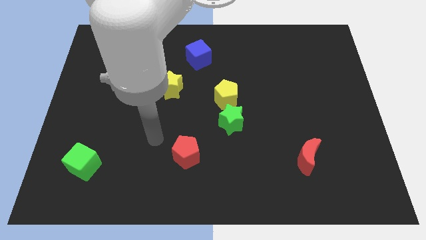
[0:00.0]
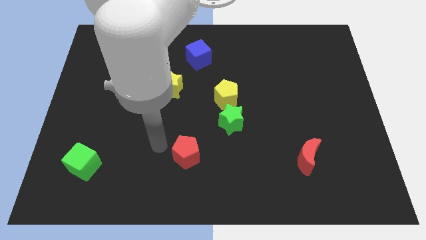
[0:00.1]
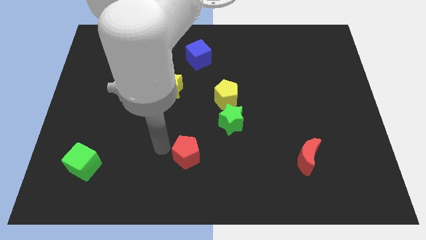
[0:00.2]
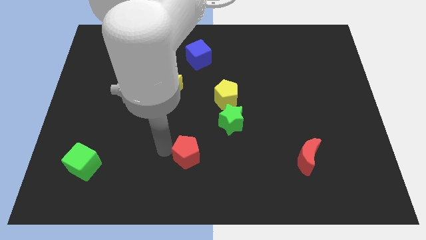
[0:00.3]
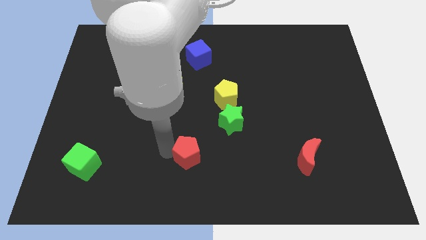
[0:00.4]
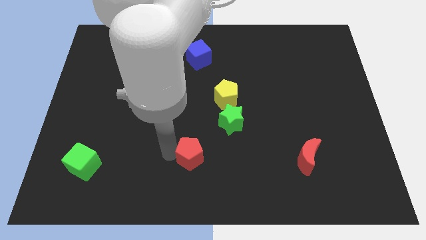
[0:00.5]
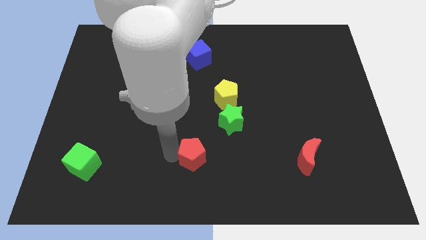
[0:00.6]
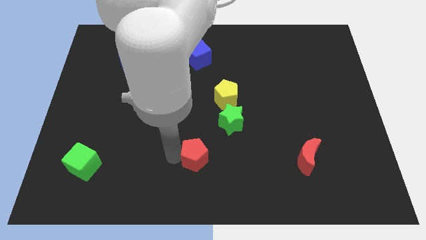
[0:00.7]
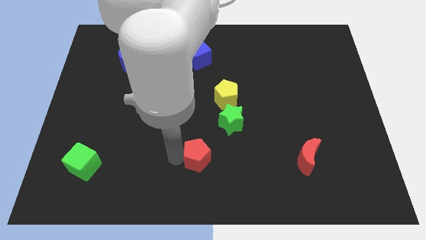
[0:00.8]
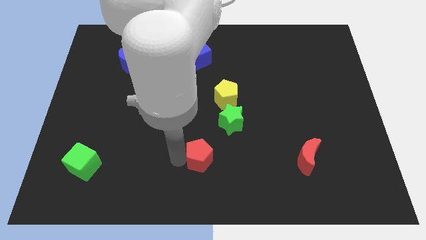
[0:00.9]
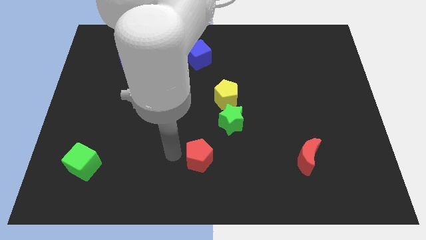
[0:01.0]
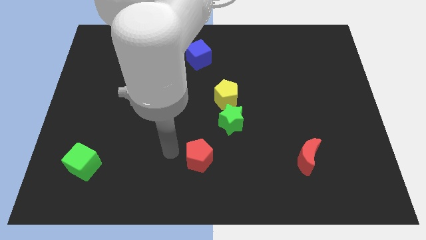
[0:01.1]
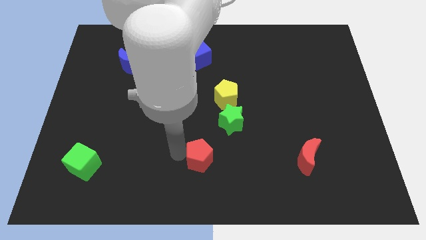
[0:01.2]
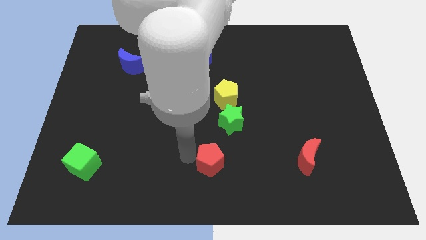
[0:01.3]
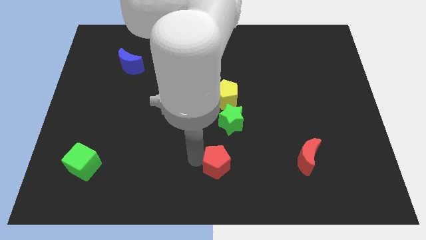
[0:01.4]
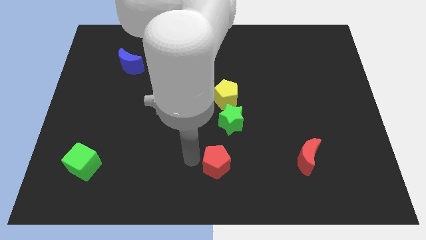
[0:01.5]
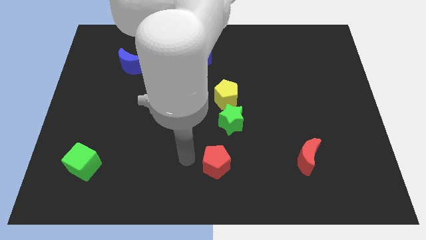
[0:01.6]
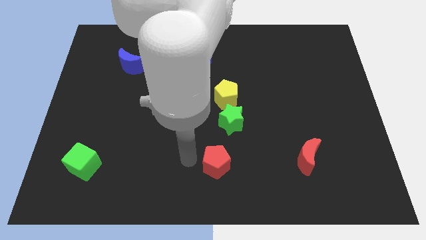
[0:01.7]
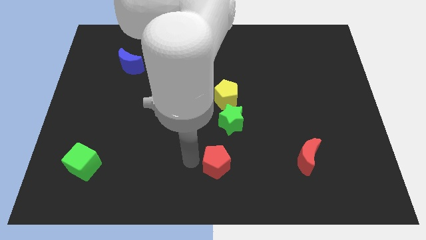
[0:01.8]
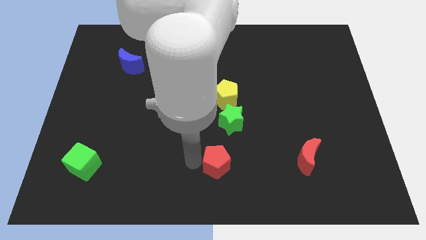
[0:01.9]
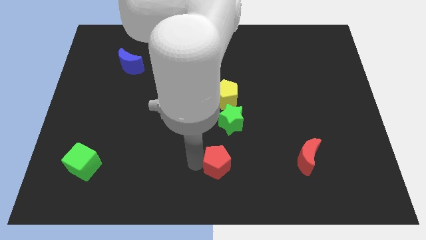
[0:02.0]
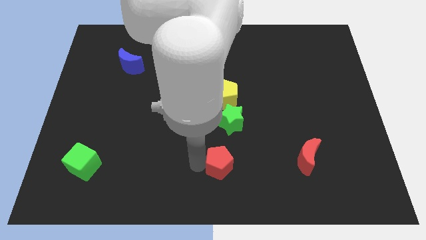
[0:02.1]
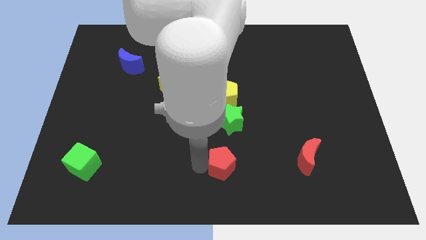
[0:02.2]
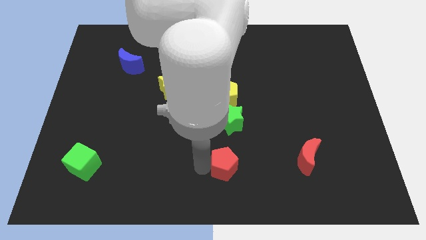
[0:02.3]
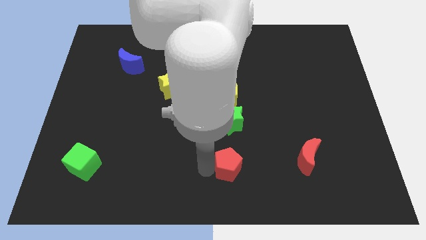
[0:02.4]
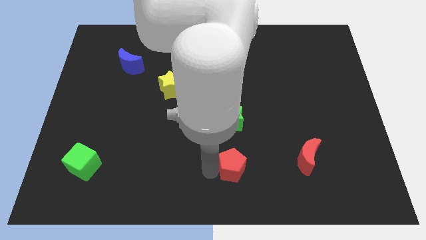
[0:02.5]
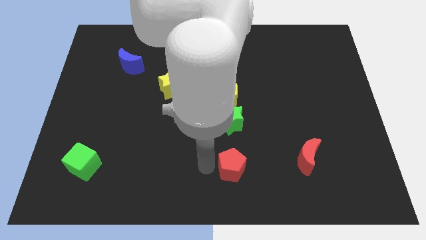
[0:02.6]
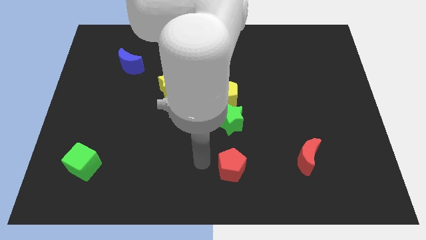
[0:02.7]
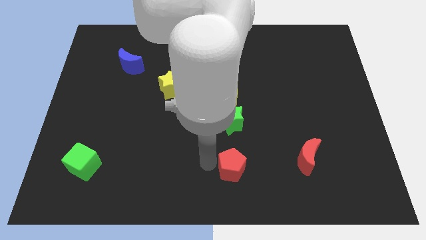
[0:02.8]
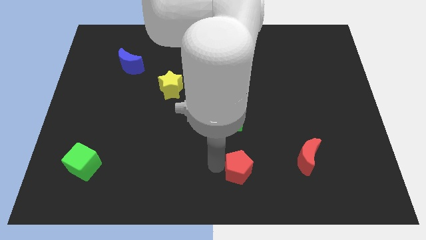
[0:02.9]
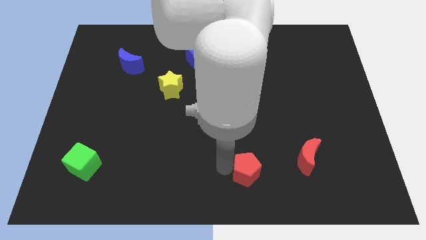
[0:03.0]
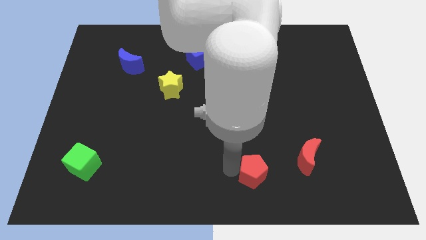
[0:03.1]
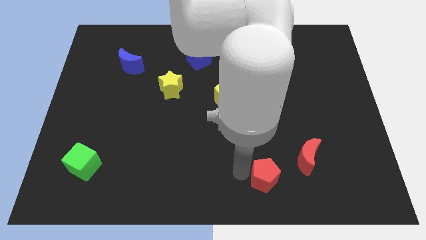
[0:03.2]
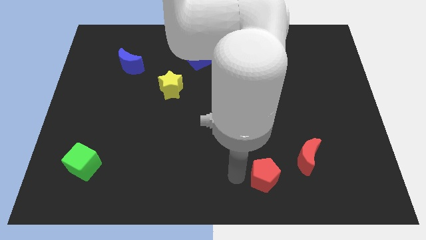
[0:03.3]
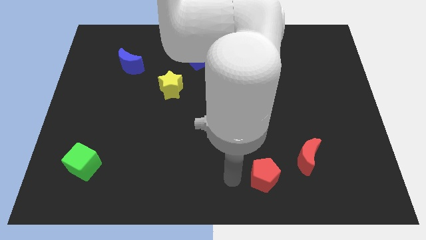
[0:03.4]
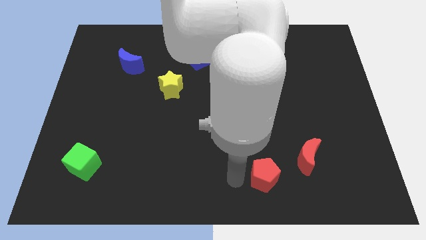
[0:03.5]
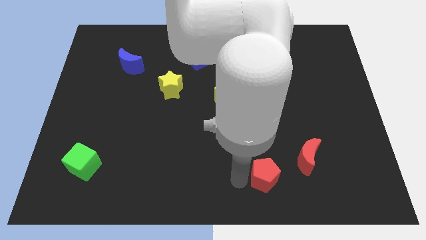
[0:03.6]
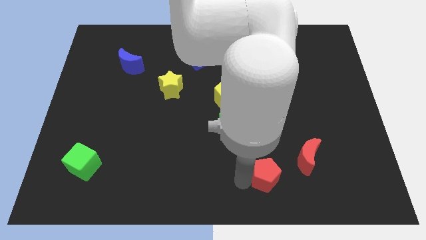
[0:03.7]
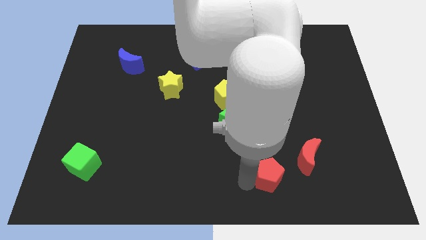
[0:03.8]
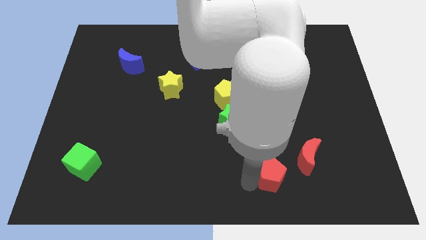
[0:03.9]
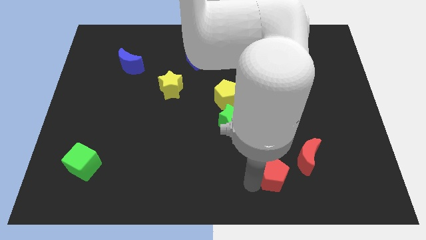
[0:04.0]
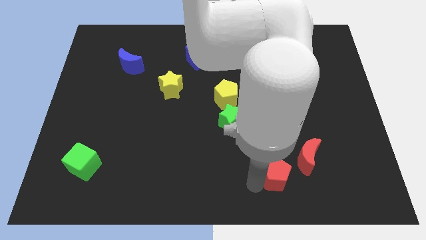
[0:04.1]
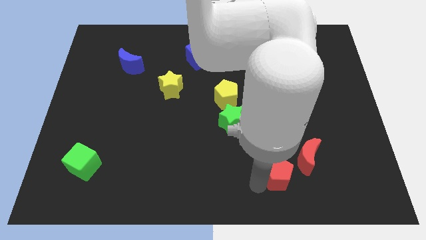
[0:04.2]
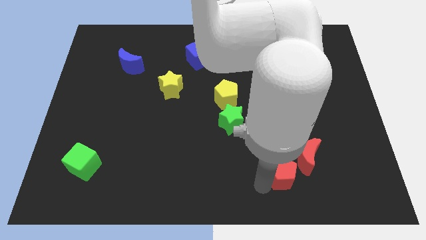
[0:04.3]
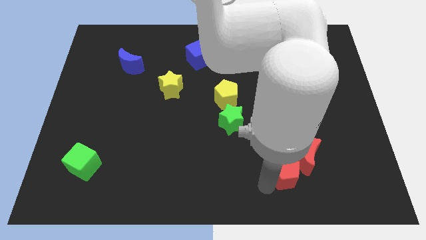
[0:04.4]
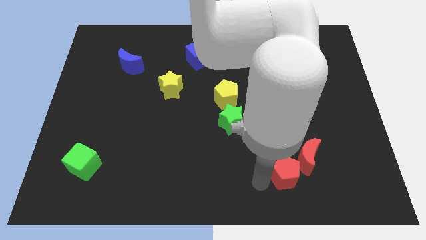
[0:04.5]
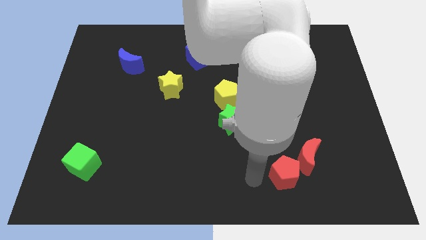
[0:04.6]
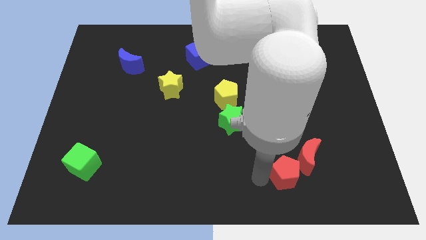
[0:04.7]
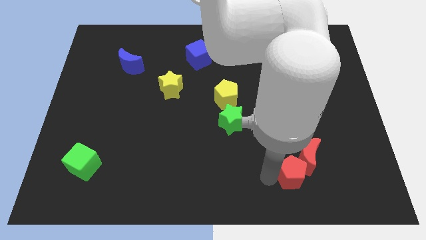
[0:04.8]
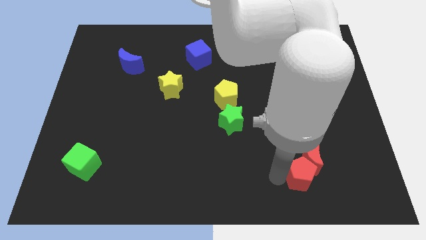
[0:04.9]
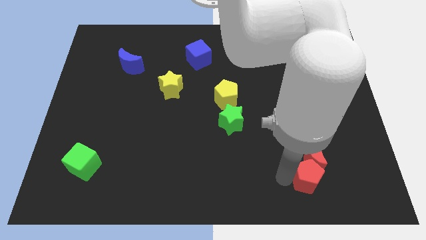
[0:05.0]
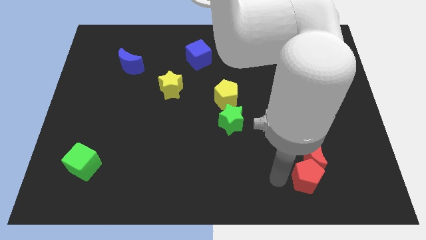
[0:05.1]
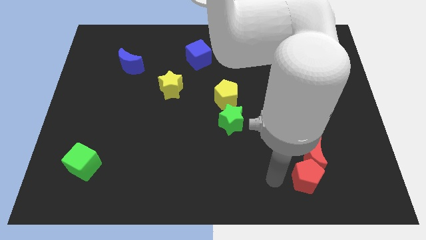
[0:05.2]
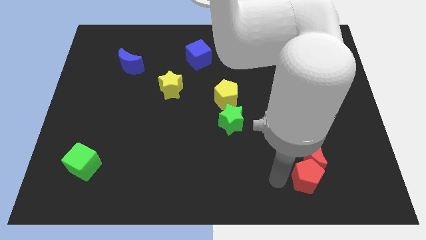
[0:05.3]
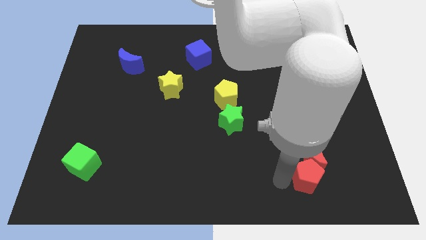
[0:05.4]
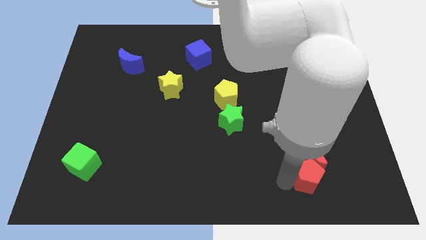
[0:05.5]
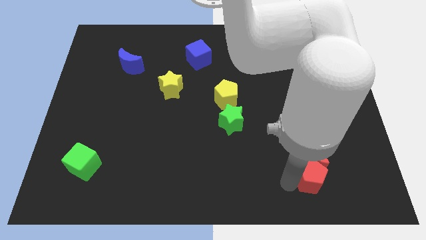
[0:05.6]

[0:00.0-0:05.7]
slide the red pentagon diagonally down and to the right of the red moon

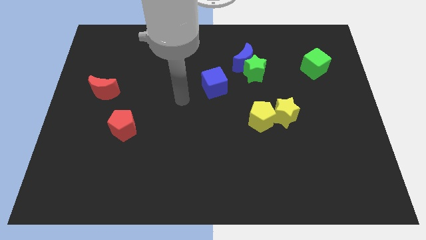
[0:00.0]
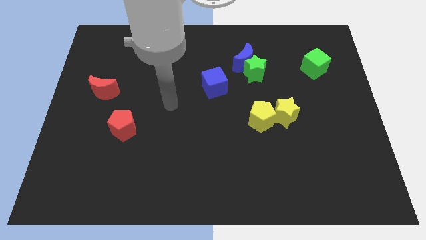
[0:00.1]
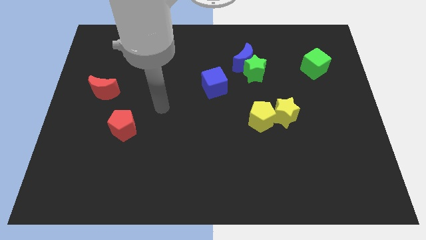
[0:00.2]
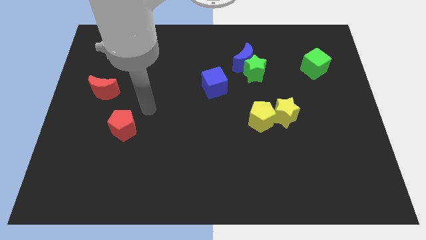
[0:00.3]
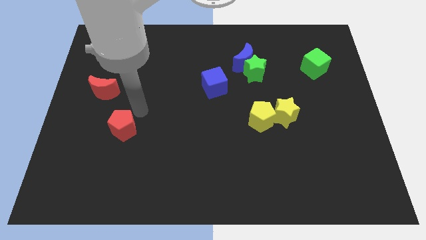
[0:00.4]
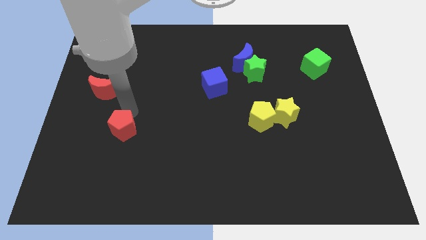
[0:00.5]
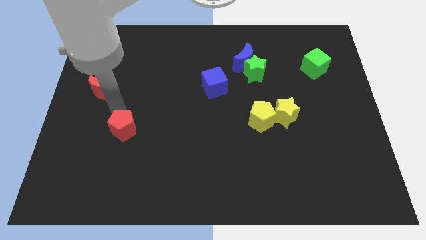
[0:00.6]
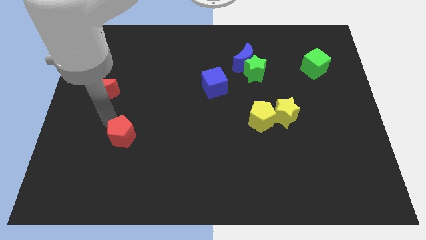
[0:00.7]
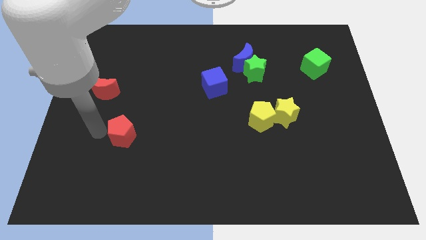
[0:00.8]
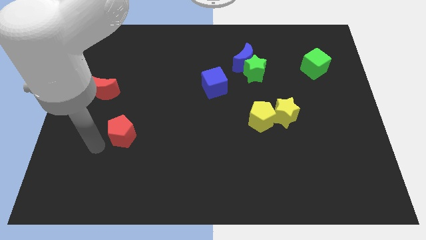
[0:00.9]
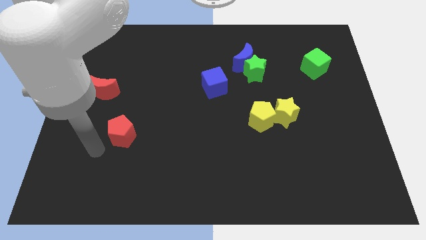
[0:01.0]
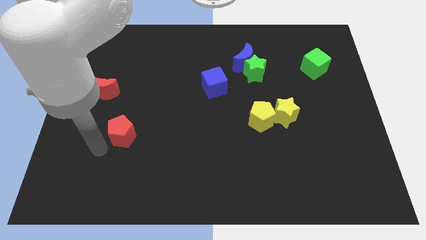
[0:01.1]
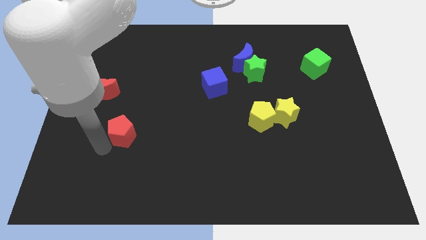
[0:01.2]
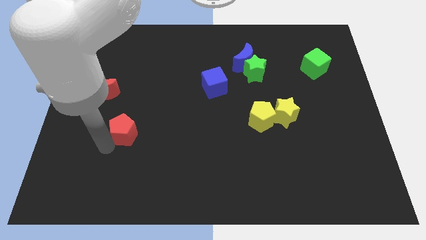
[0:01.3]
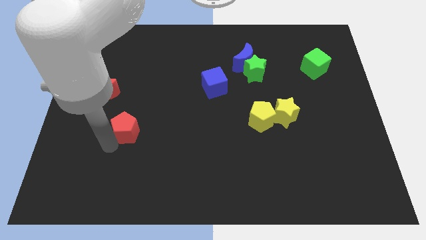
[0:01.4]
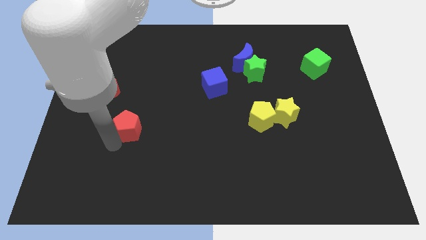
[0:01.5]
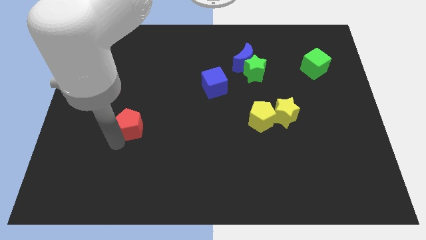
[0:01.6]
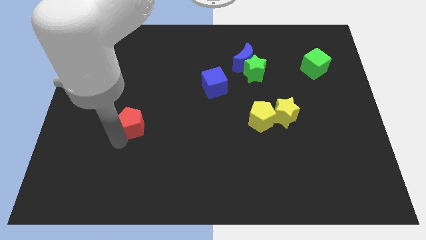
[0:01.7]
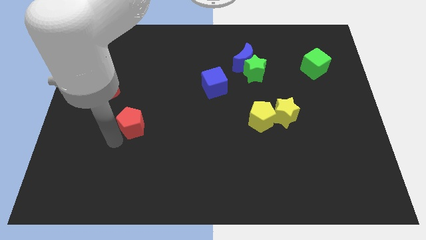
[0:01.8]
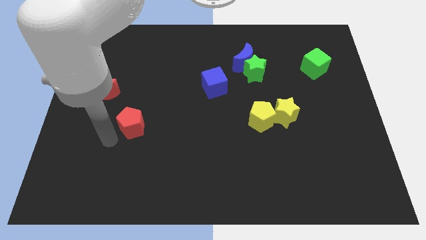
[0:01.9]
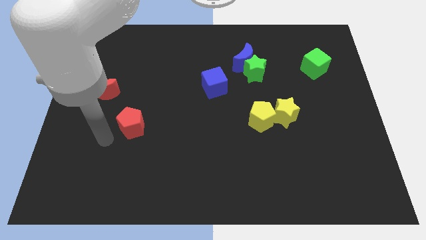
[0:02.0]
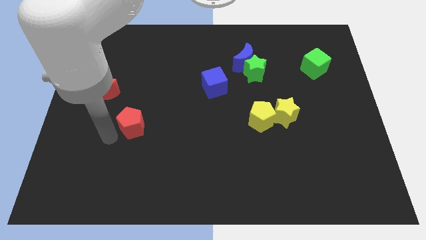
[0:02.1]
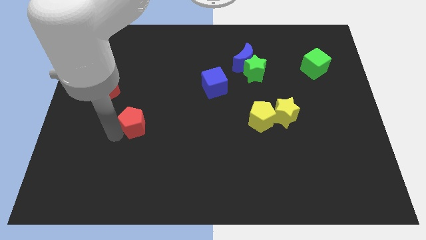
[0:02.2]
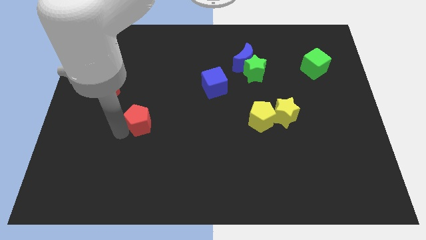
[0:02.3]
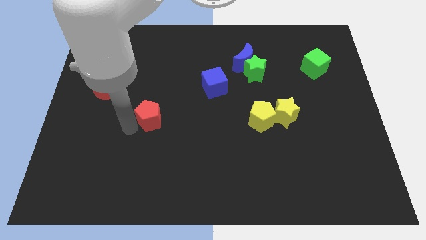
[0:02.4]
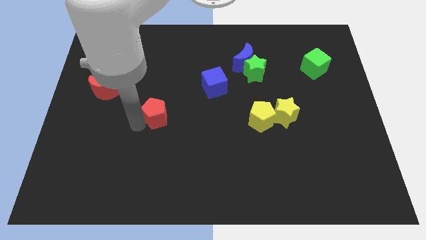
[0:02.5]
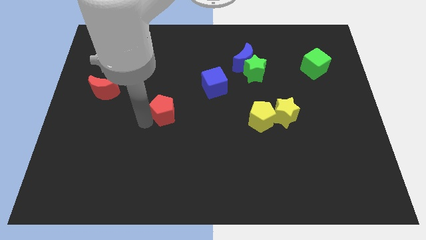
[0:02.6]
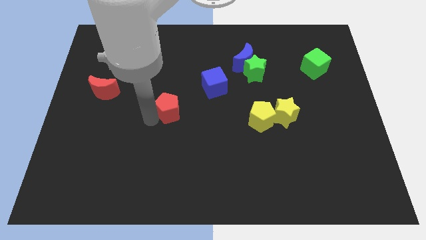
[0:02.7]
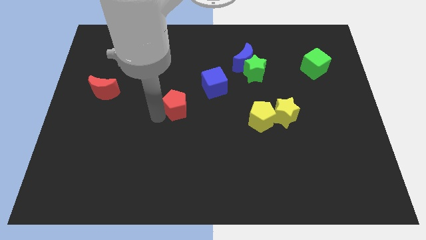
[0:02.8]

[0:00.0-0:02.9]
move the red pentagon diagonally down and to the left of the blue cube
